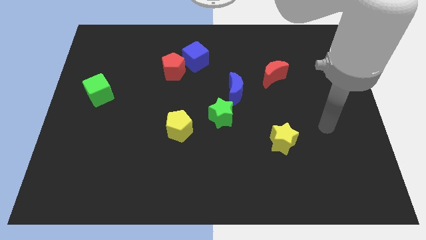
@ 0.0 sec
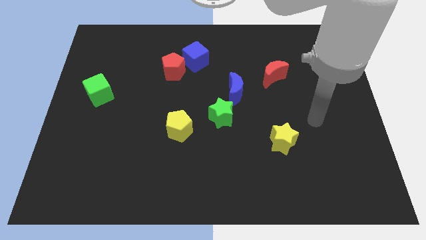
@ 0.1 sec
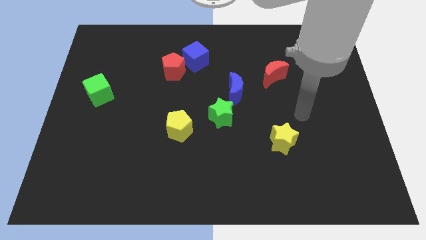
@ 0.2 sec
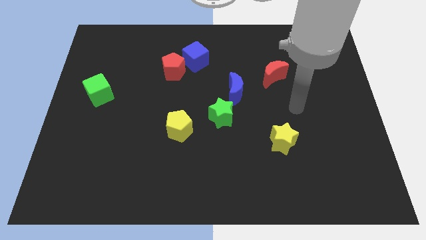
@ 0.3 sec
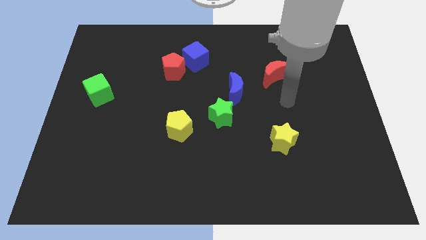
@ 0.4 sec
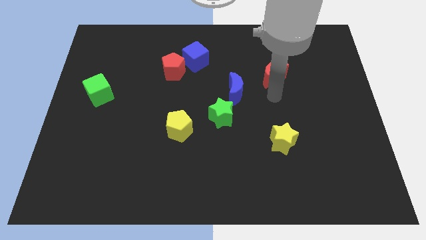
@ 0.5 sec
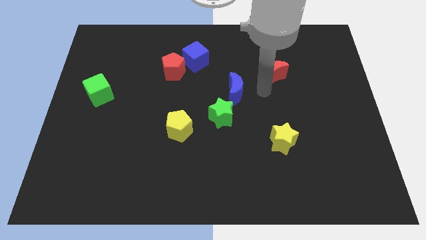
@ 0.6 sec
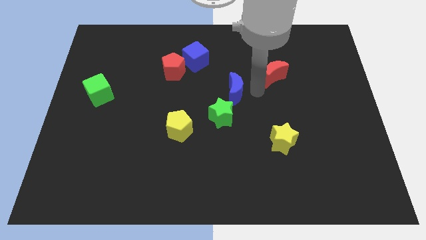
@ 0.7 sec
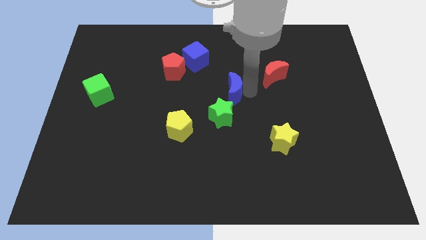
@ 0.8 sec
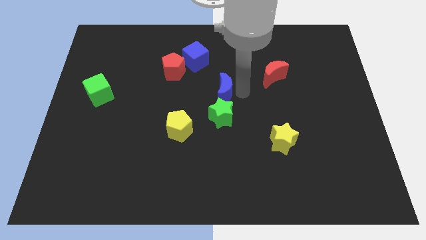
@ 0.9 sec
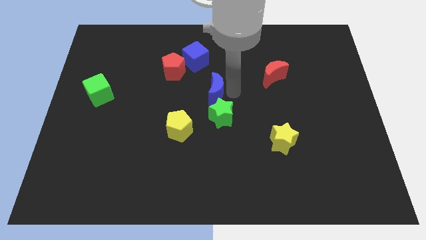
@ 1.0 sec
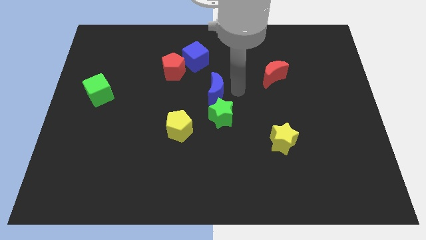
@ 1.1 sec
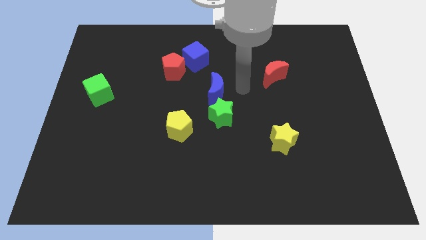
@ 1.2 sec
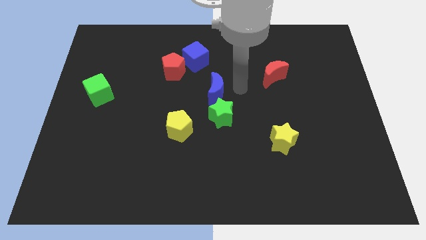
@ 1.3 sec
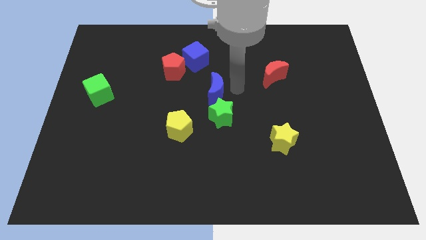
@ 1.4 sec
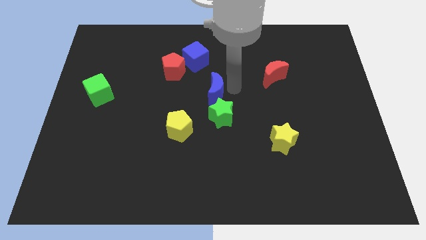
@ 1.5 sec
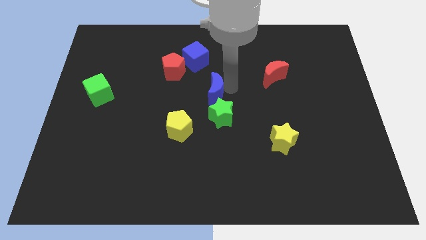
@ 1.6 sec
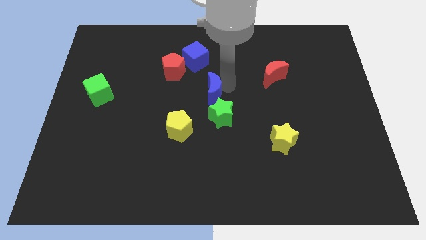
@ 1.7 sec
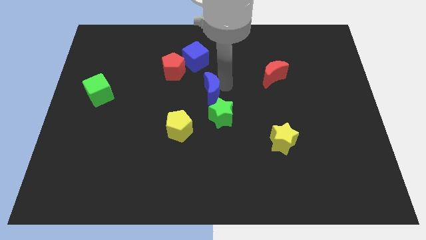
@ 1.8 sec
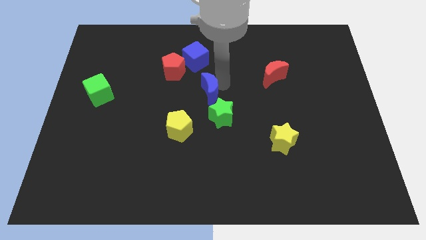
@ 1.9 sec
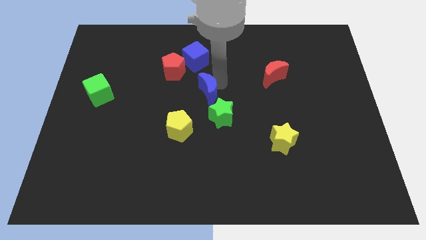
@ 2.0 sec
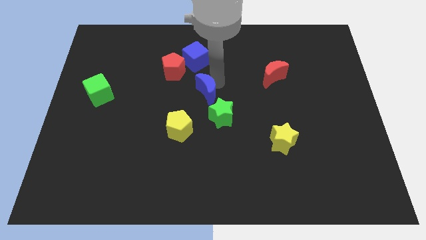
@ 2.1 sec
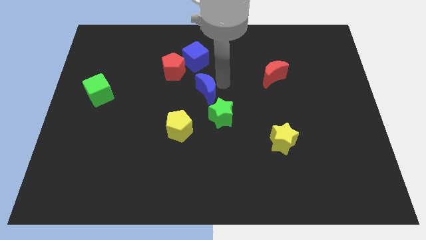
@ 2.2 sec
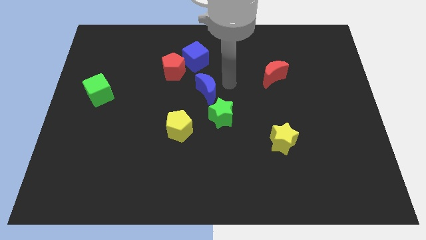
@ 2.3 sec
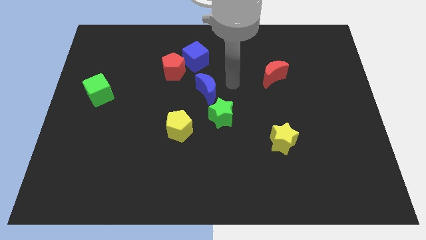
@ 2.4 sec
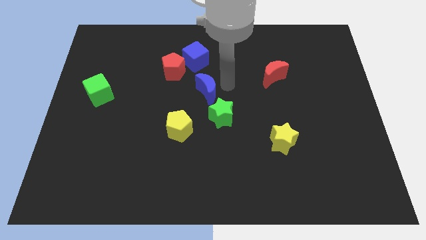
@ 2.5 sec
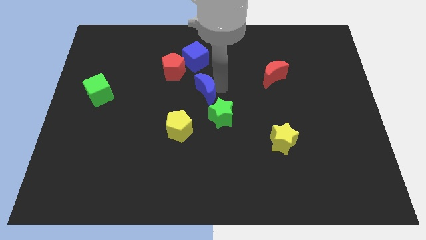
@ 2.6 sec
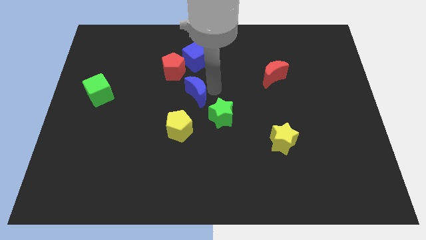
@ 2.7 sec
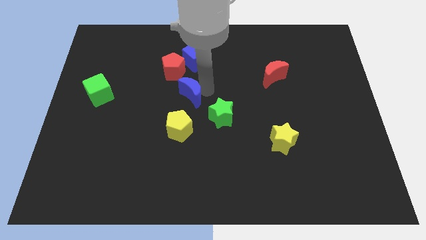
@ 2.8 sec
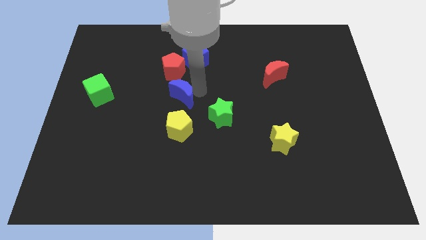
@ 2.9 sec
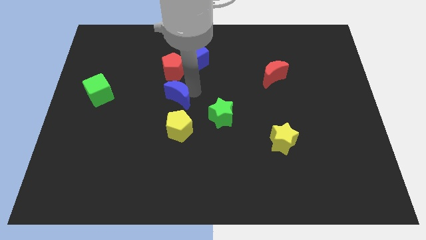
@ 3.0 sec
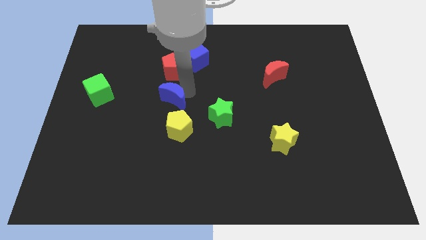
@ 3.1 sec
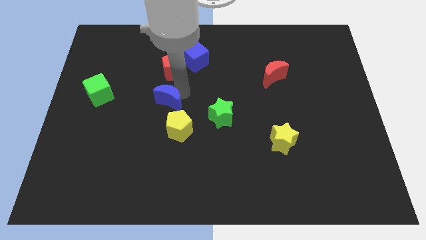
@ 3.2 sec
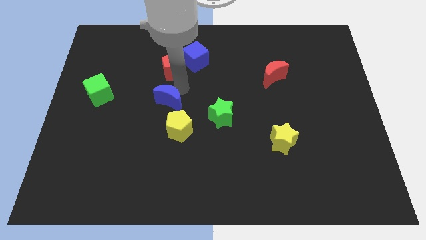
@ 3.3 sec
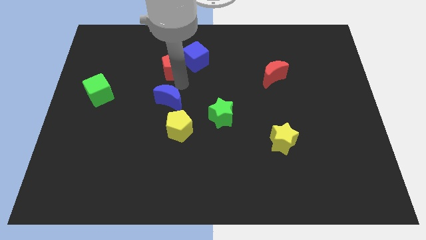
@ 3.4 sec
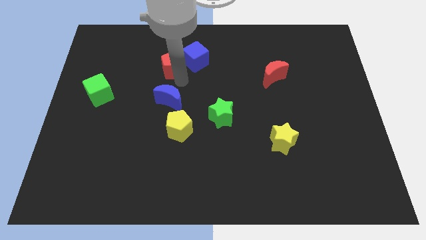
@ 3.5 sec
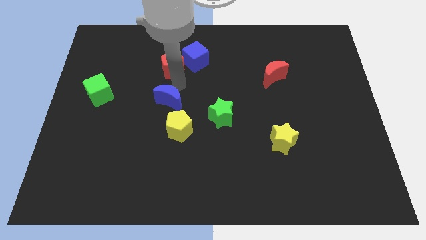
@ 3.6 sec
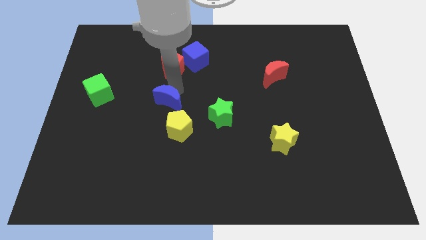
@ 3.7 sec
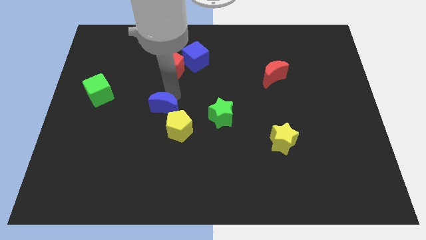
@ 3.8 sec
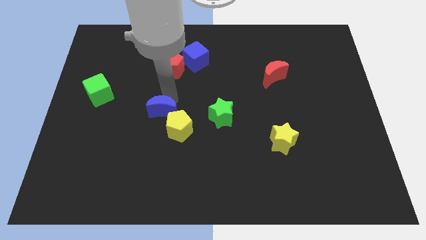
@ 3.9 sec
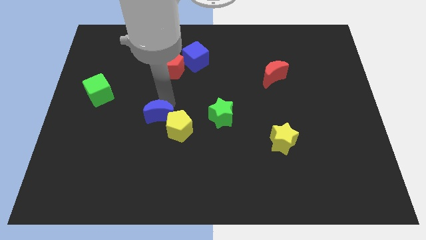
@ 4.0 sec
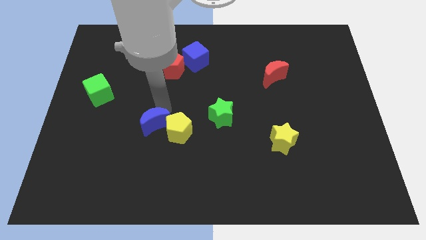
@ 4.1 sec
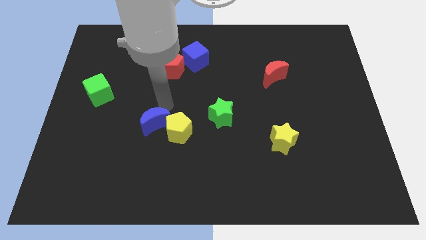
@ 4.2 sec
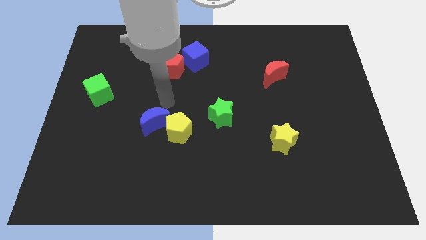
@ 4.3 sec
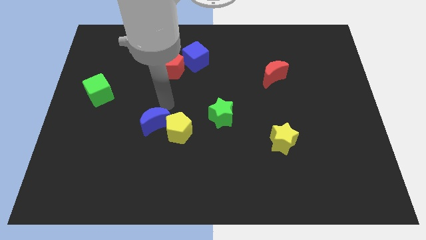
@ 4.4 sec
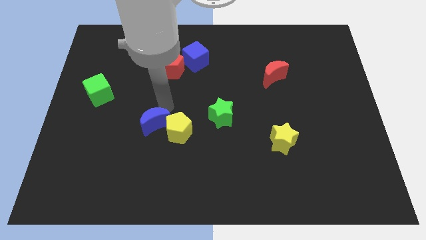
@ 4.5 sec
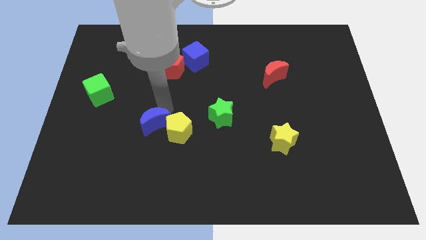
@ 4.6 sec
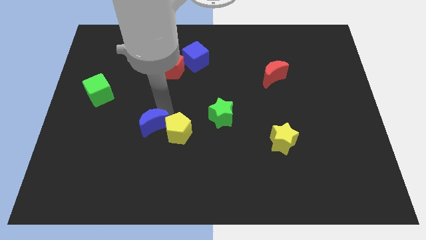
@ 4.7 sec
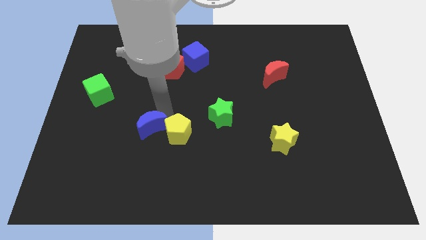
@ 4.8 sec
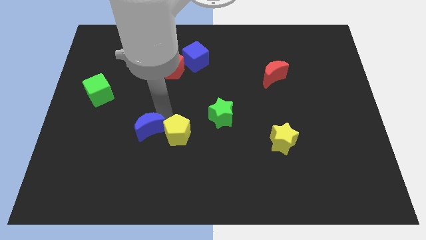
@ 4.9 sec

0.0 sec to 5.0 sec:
move the blue moon downwards and then to the left

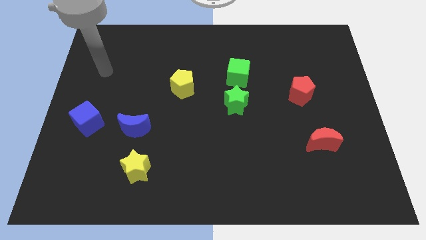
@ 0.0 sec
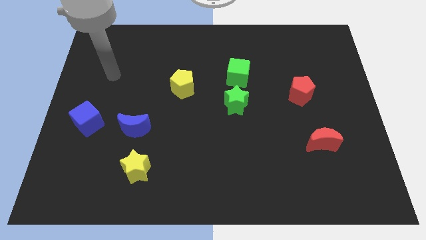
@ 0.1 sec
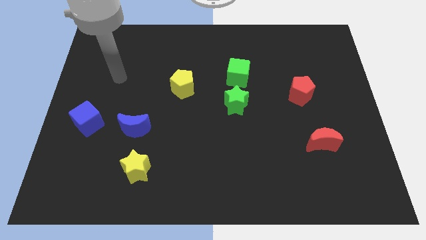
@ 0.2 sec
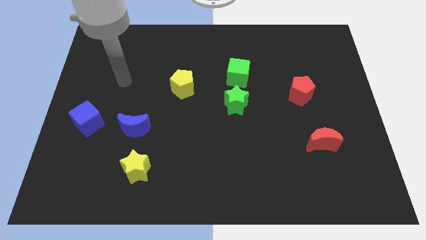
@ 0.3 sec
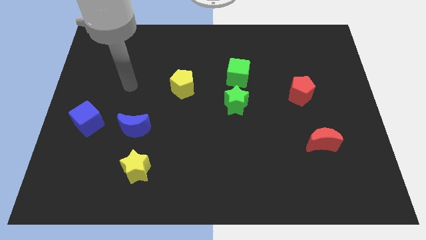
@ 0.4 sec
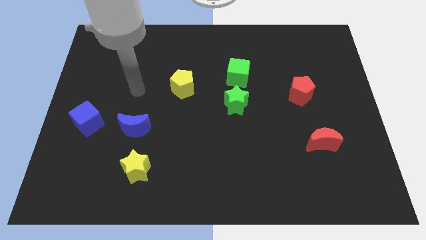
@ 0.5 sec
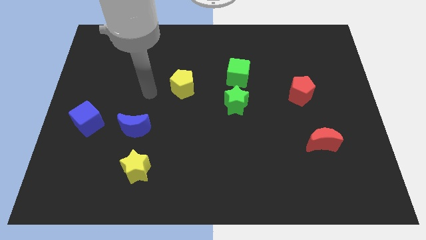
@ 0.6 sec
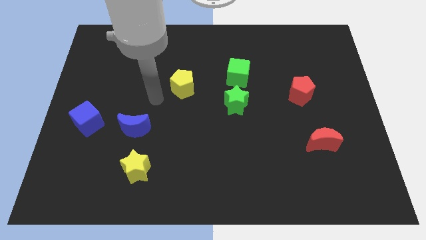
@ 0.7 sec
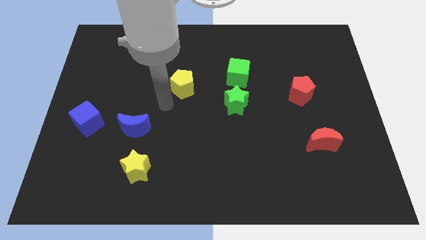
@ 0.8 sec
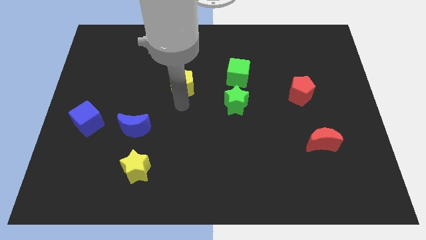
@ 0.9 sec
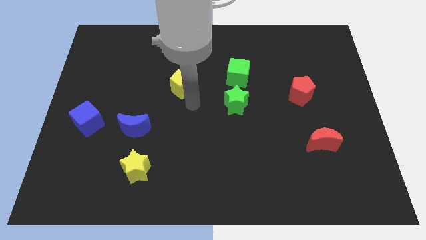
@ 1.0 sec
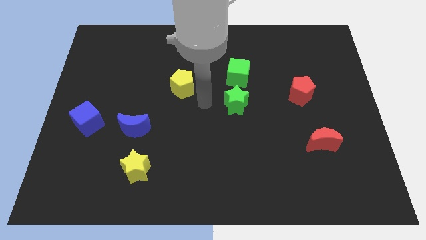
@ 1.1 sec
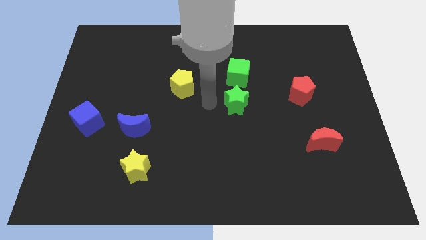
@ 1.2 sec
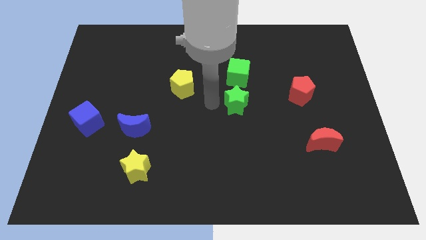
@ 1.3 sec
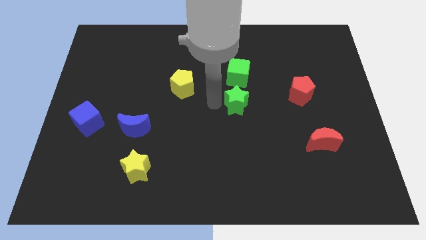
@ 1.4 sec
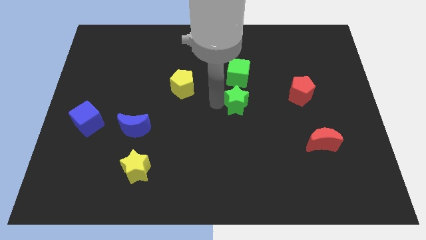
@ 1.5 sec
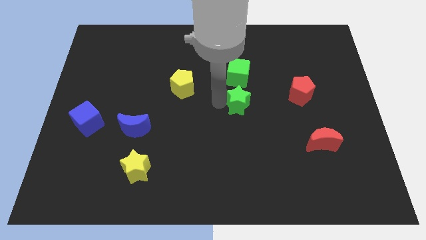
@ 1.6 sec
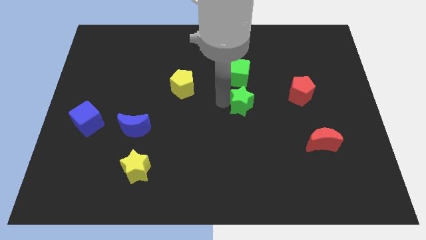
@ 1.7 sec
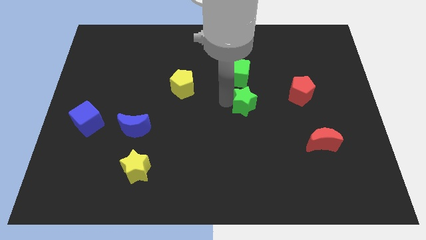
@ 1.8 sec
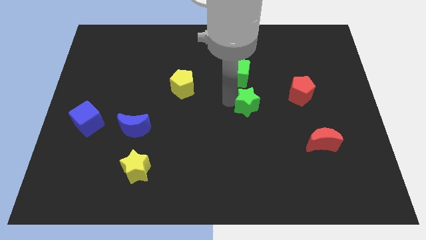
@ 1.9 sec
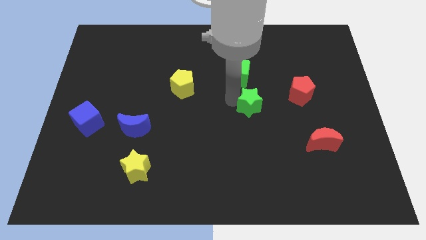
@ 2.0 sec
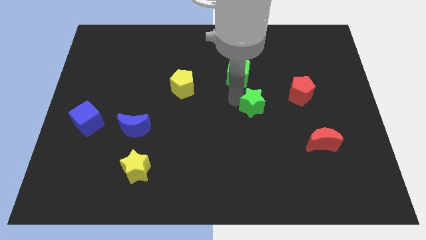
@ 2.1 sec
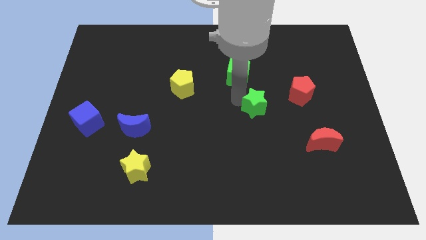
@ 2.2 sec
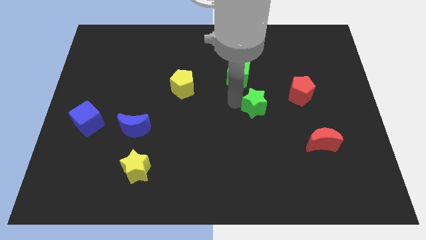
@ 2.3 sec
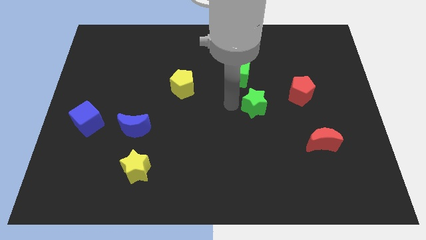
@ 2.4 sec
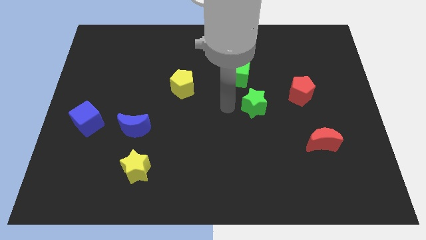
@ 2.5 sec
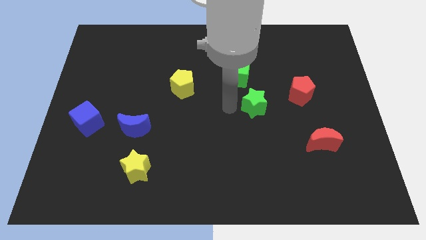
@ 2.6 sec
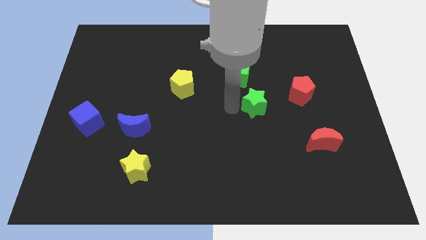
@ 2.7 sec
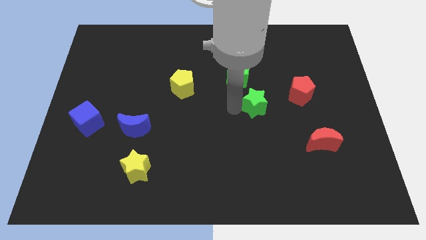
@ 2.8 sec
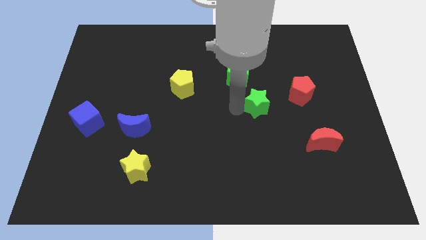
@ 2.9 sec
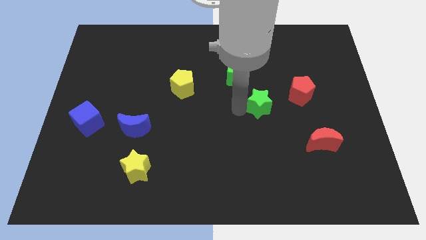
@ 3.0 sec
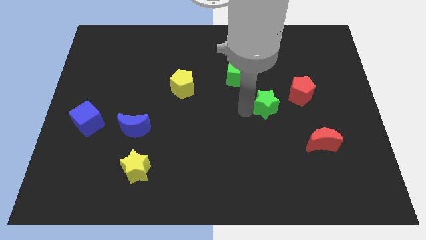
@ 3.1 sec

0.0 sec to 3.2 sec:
push the green star a bit right
